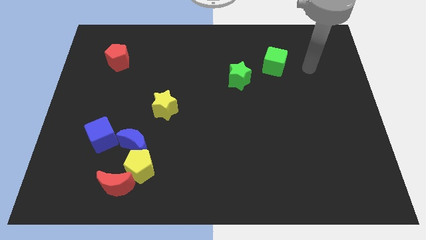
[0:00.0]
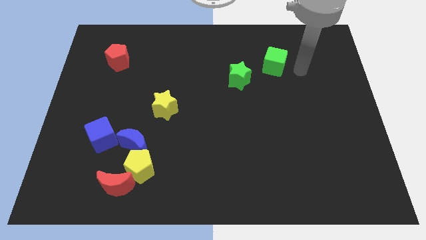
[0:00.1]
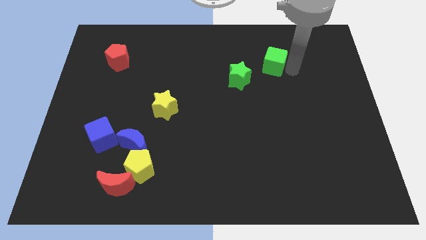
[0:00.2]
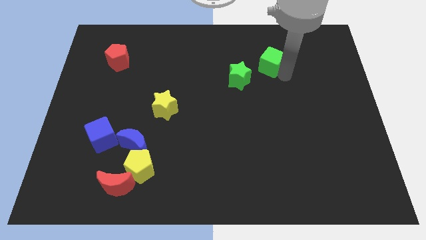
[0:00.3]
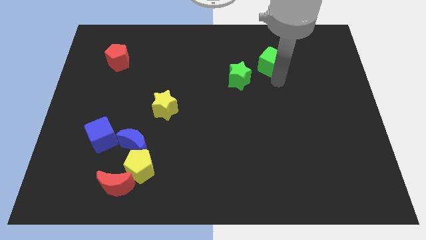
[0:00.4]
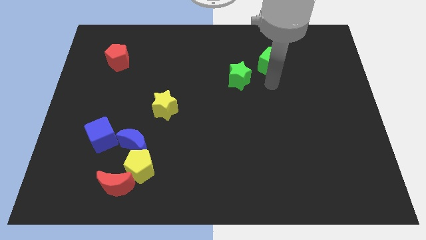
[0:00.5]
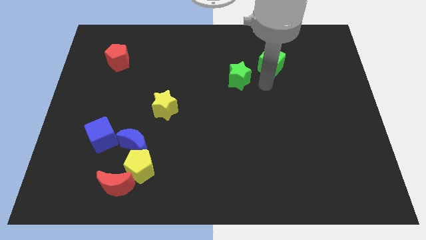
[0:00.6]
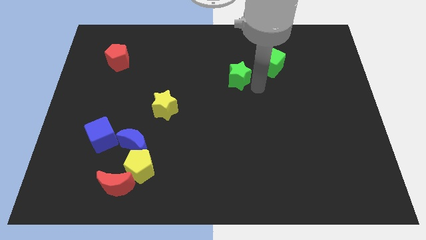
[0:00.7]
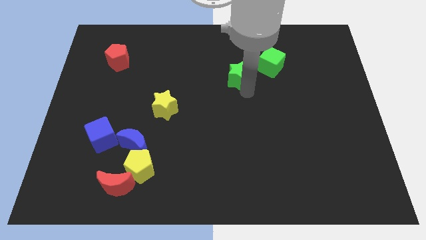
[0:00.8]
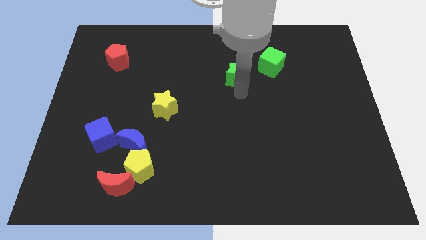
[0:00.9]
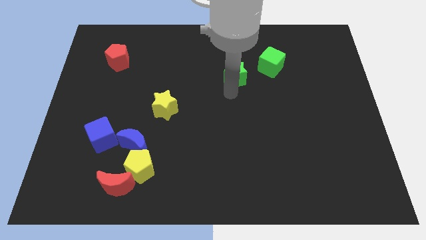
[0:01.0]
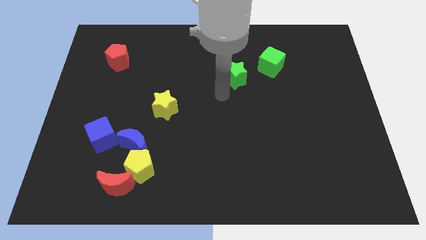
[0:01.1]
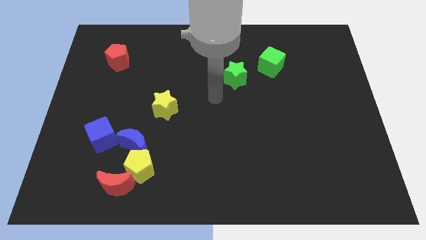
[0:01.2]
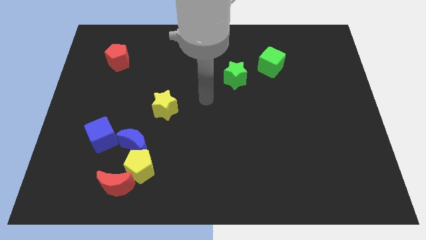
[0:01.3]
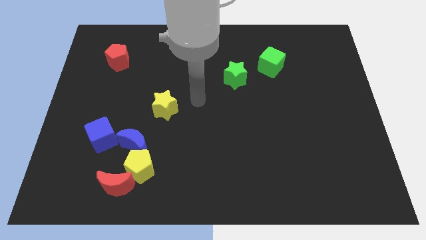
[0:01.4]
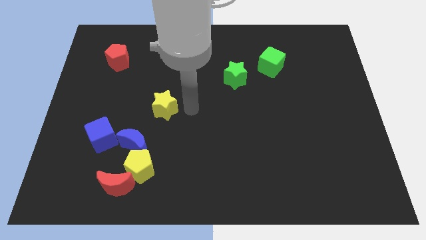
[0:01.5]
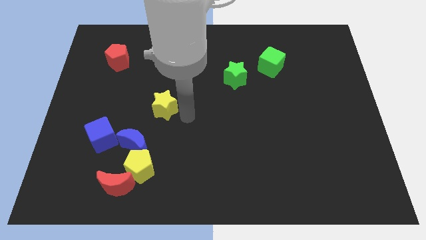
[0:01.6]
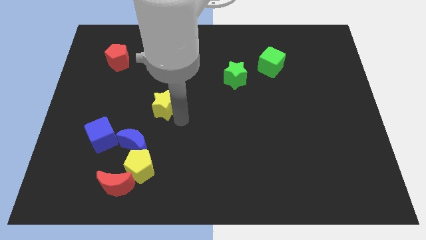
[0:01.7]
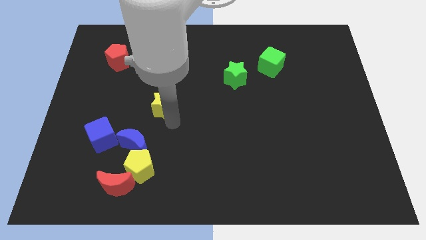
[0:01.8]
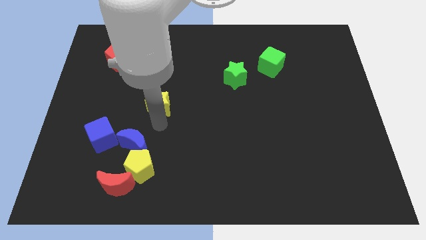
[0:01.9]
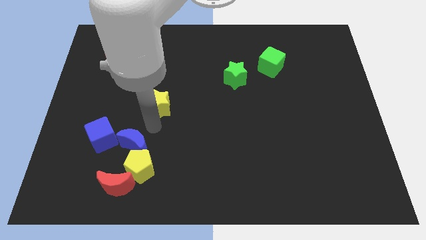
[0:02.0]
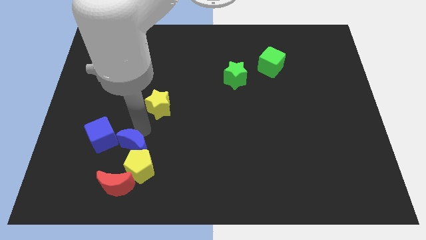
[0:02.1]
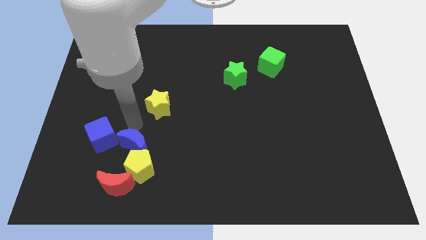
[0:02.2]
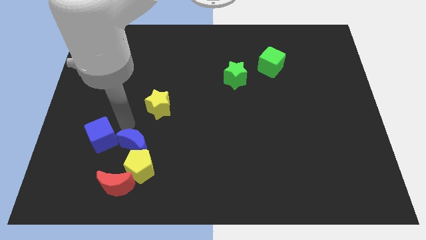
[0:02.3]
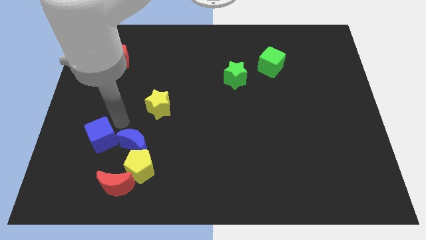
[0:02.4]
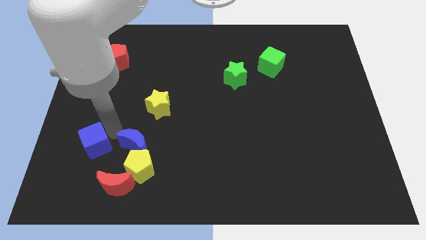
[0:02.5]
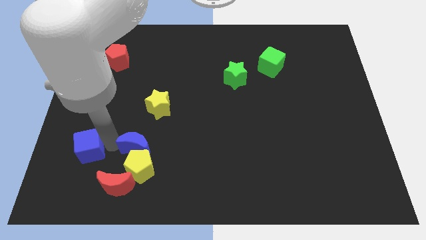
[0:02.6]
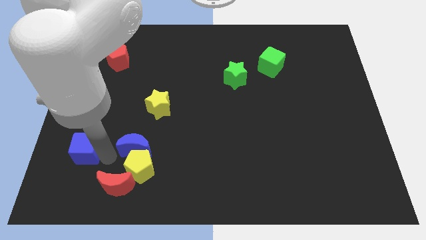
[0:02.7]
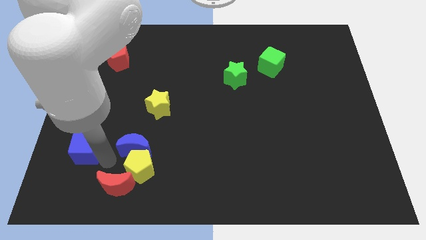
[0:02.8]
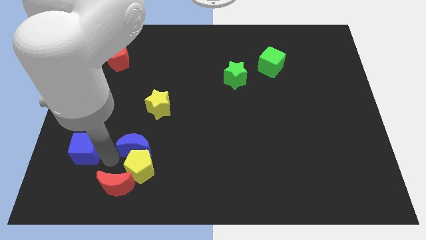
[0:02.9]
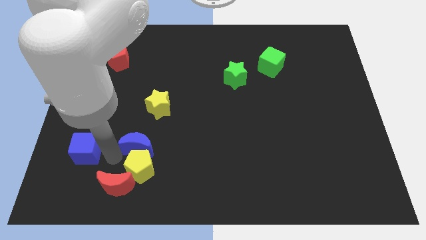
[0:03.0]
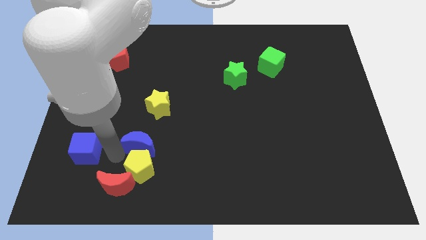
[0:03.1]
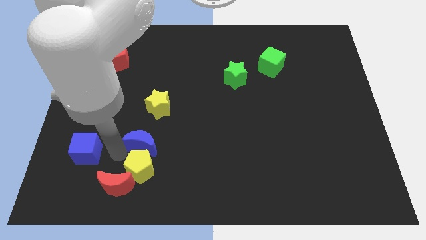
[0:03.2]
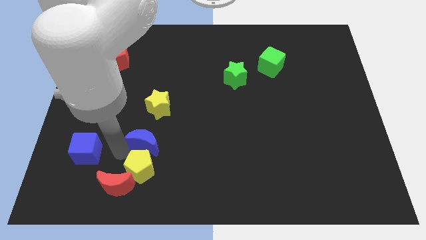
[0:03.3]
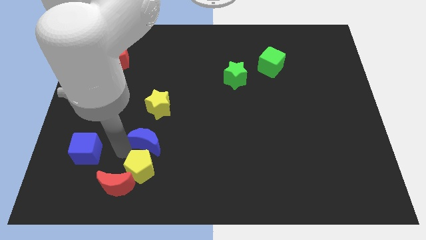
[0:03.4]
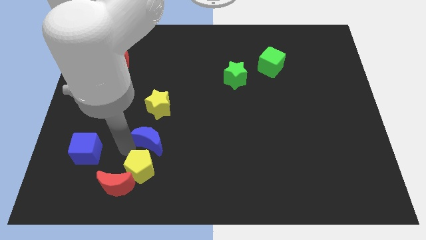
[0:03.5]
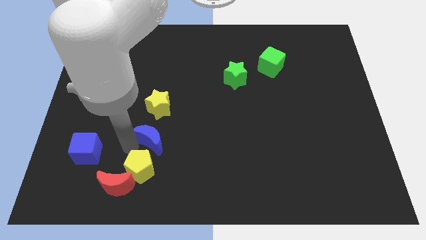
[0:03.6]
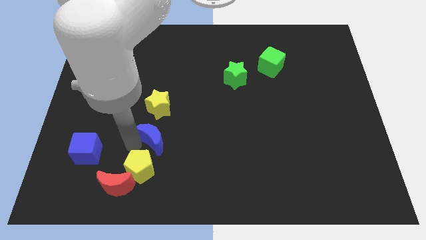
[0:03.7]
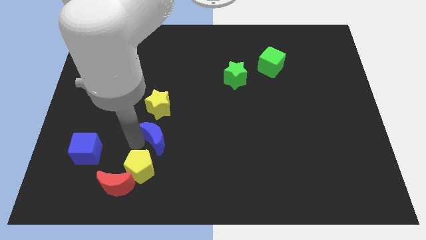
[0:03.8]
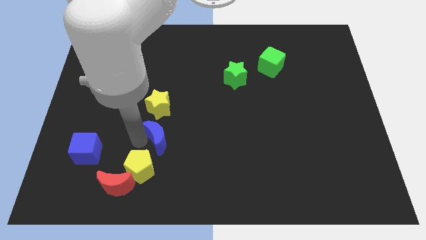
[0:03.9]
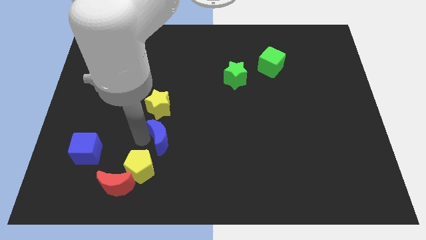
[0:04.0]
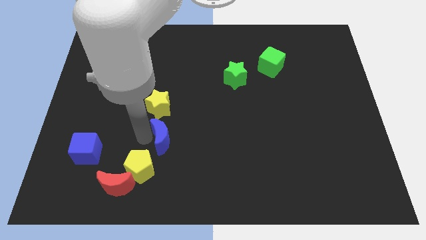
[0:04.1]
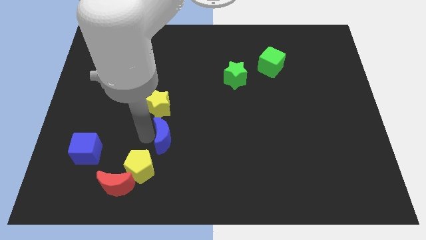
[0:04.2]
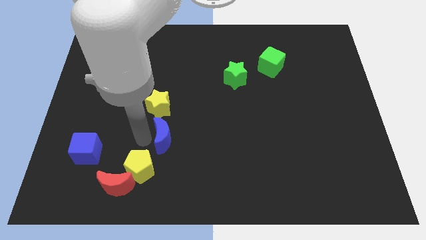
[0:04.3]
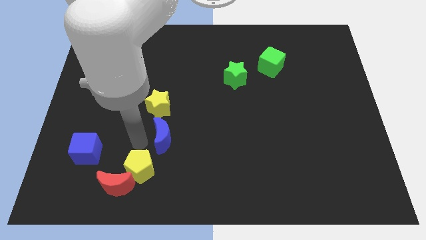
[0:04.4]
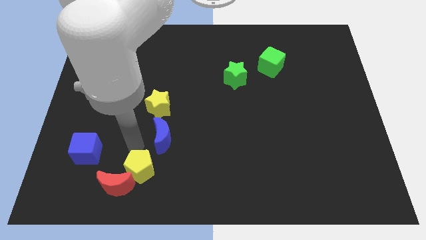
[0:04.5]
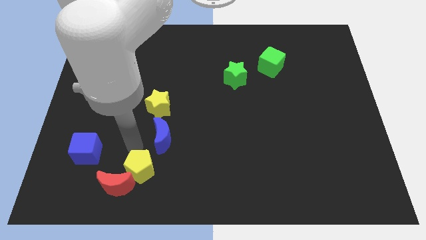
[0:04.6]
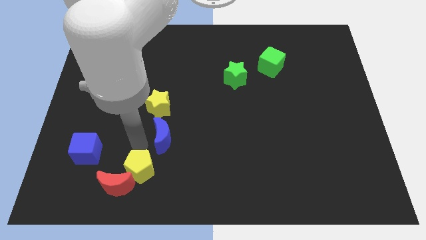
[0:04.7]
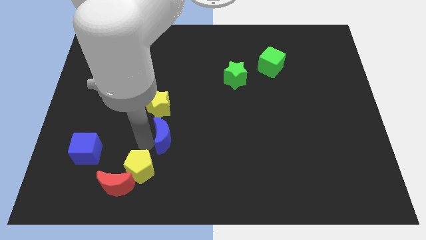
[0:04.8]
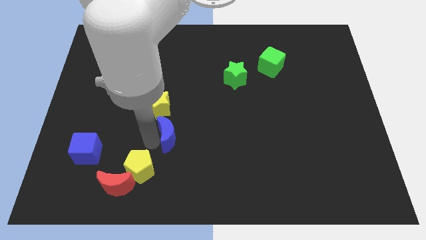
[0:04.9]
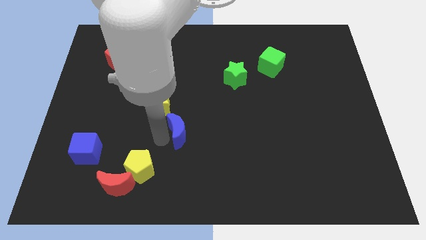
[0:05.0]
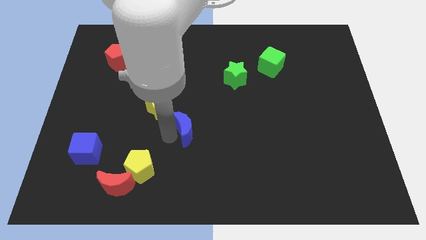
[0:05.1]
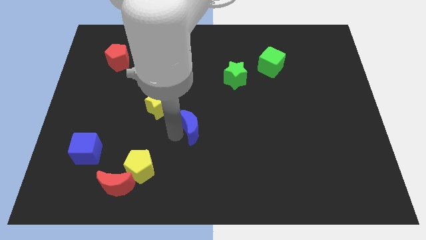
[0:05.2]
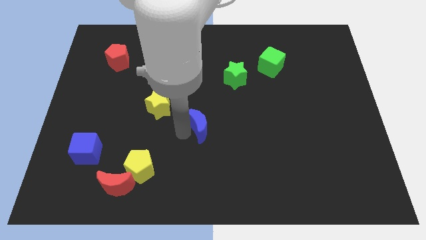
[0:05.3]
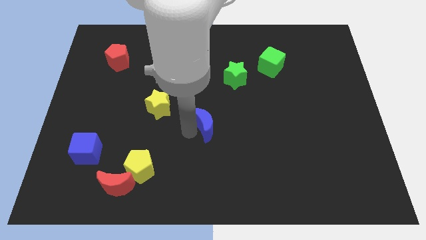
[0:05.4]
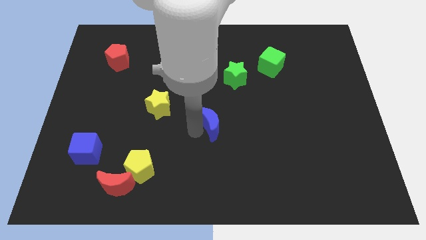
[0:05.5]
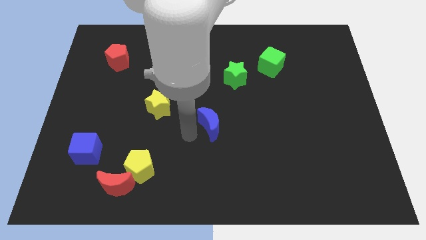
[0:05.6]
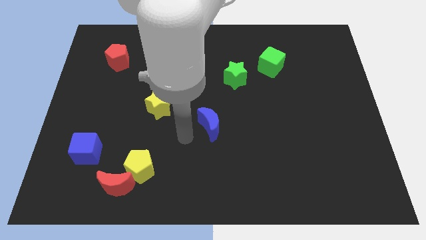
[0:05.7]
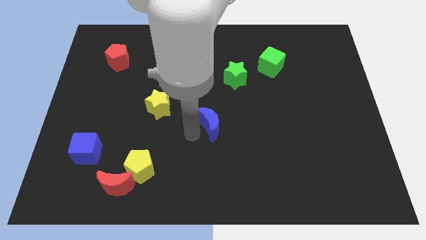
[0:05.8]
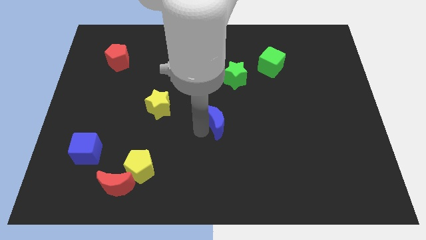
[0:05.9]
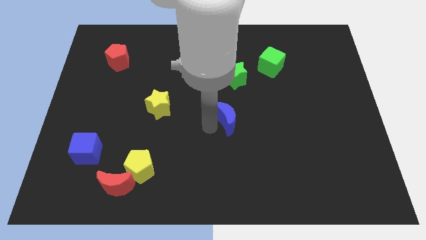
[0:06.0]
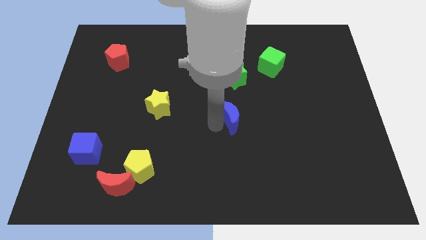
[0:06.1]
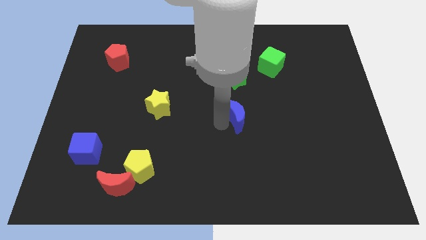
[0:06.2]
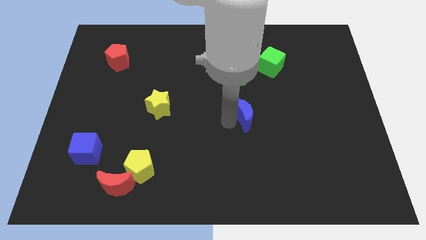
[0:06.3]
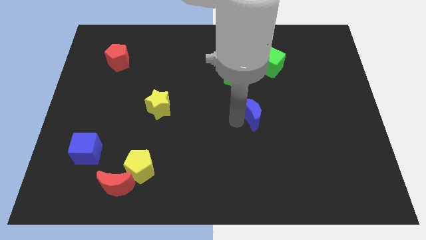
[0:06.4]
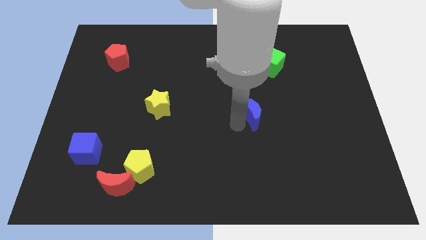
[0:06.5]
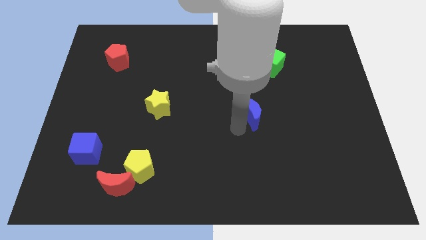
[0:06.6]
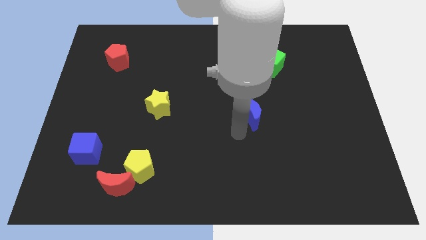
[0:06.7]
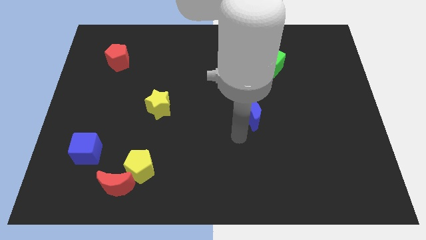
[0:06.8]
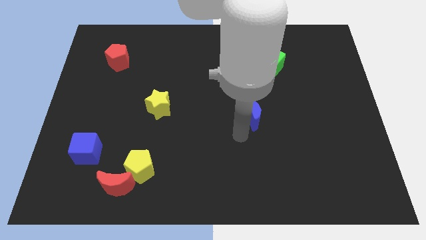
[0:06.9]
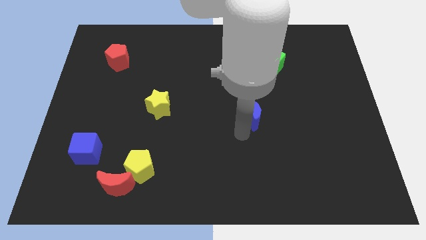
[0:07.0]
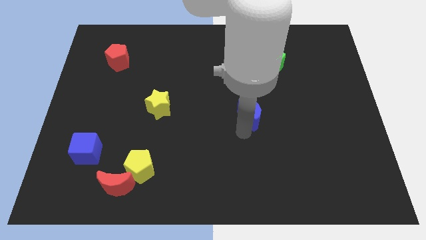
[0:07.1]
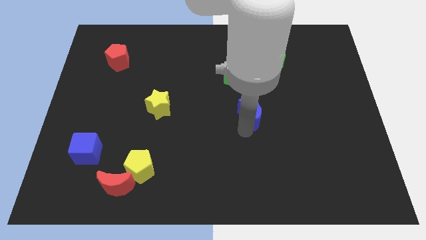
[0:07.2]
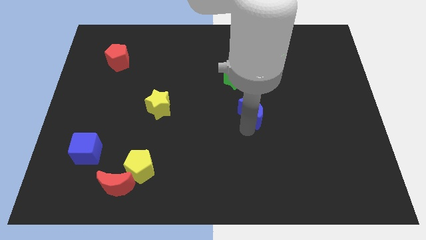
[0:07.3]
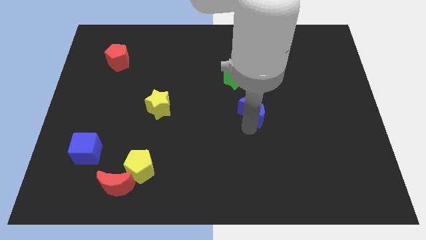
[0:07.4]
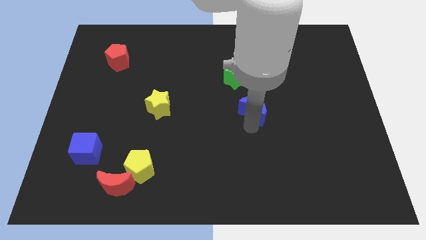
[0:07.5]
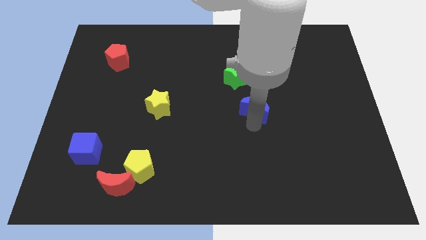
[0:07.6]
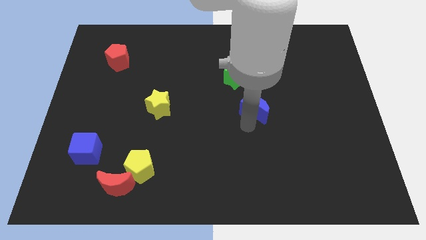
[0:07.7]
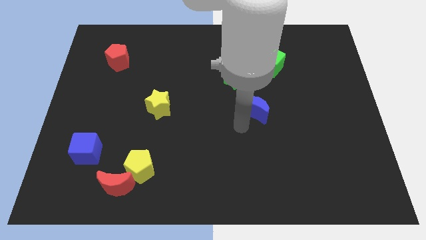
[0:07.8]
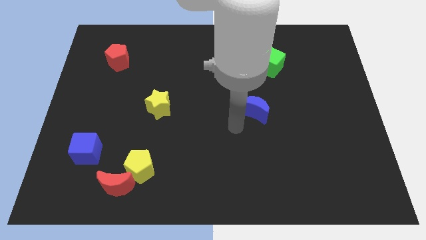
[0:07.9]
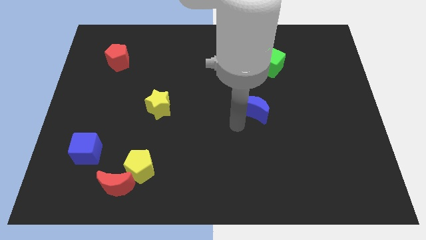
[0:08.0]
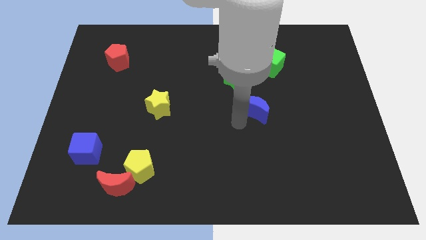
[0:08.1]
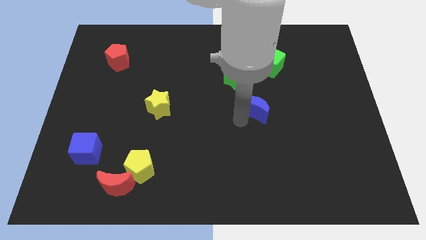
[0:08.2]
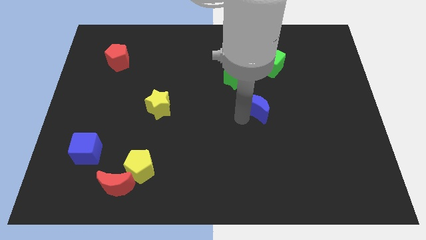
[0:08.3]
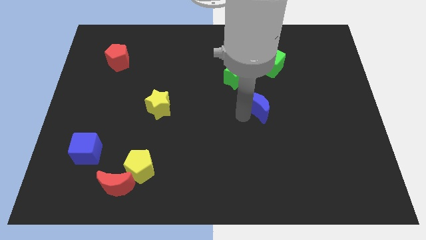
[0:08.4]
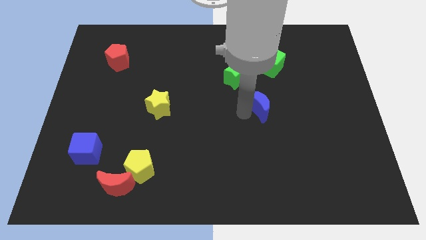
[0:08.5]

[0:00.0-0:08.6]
move the blue moon to the bottom of the green cube
